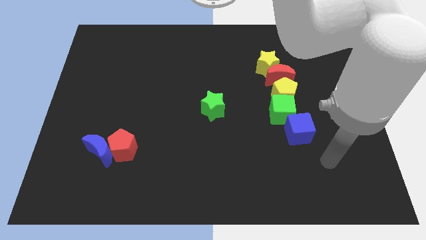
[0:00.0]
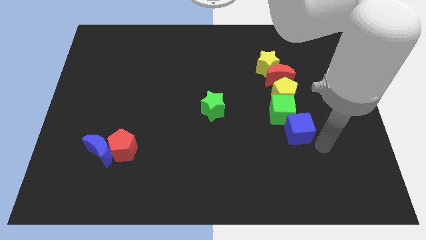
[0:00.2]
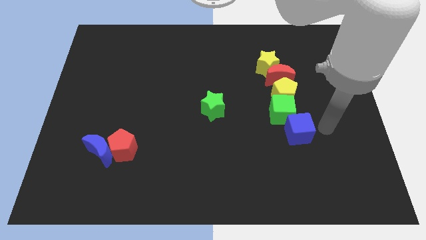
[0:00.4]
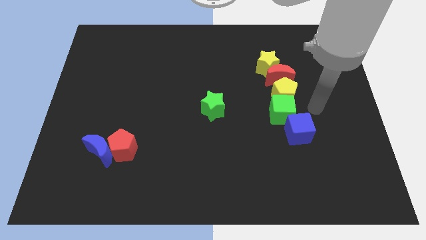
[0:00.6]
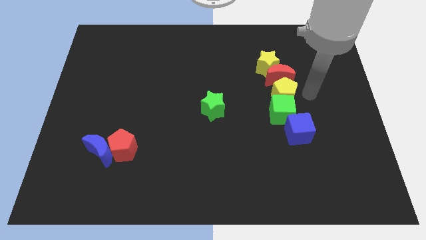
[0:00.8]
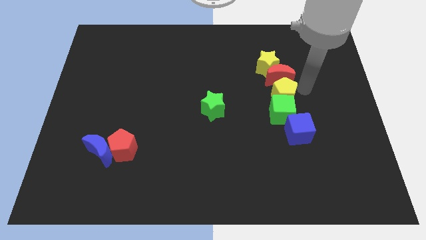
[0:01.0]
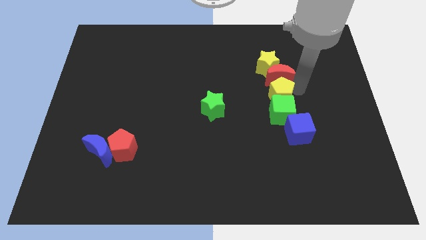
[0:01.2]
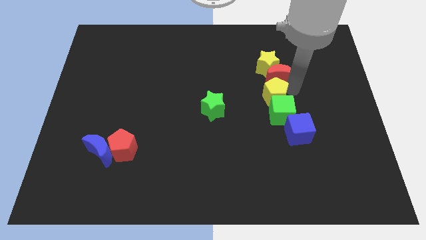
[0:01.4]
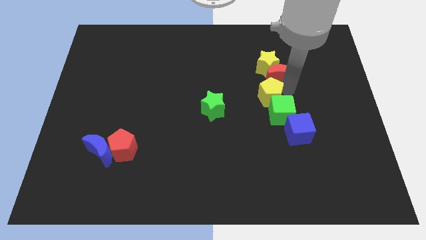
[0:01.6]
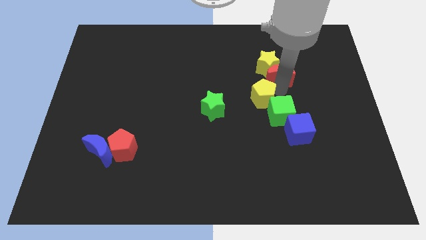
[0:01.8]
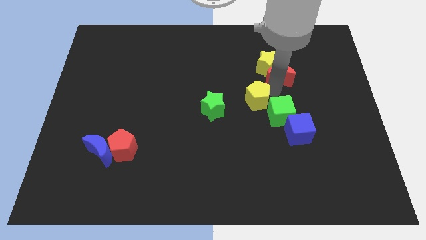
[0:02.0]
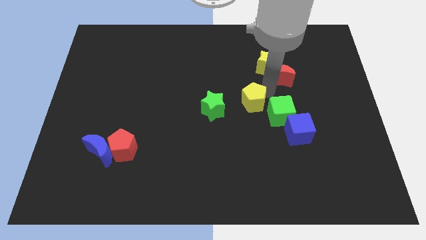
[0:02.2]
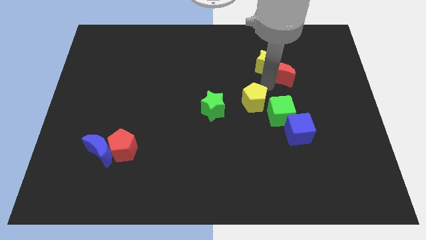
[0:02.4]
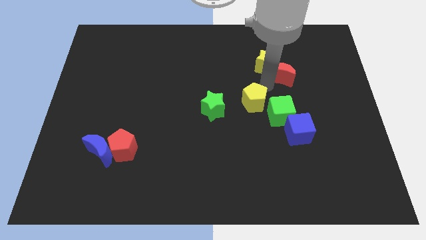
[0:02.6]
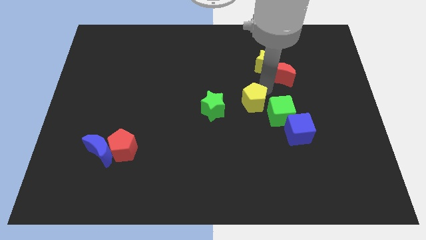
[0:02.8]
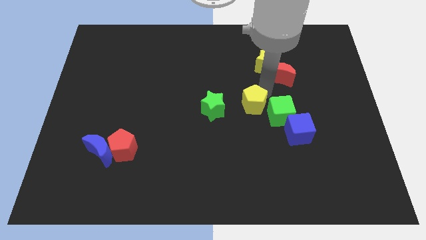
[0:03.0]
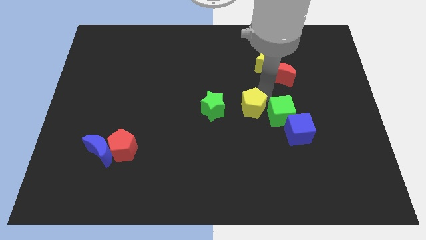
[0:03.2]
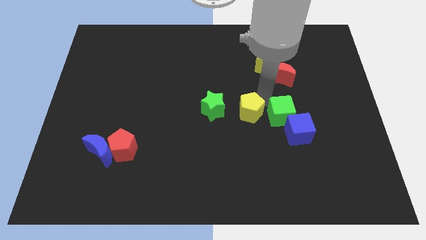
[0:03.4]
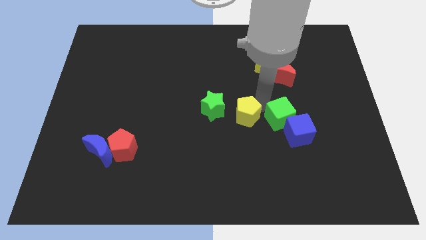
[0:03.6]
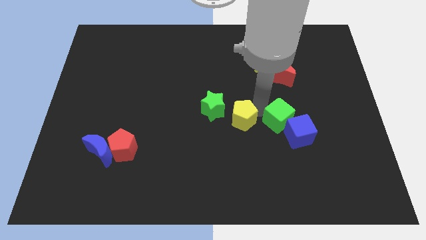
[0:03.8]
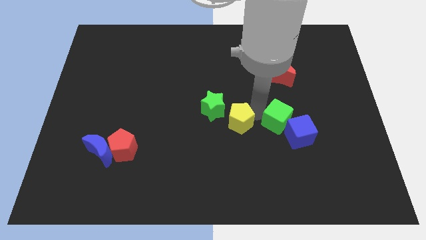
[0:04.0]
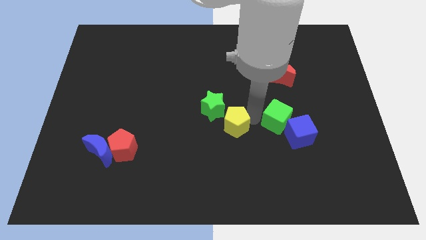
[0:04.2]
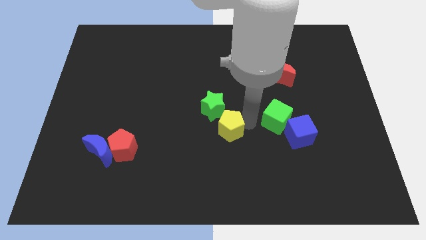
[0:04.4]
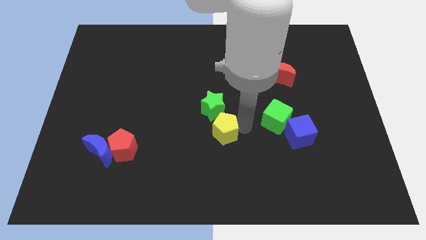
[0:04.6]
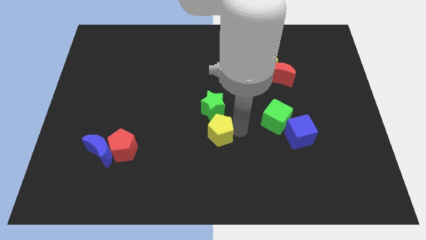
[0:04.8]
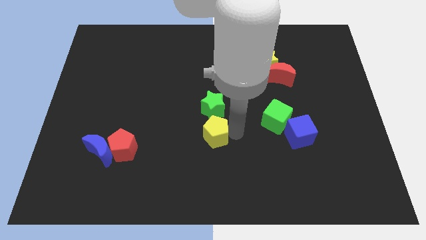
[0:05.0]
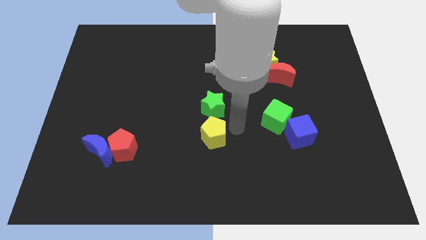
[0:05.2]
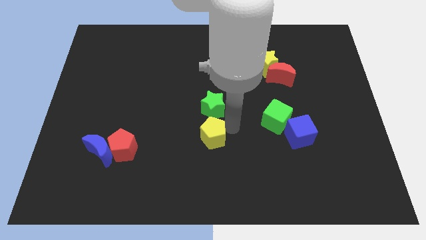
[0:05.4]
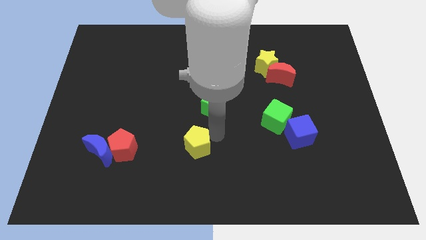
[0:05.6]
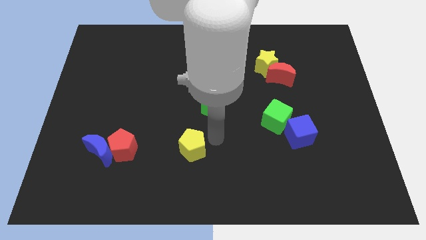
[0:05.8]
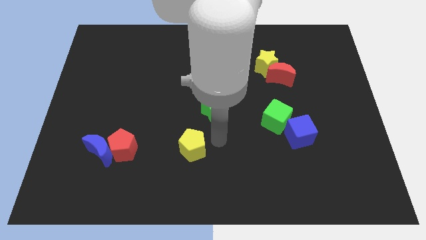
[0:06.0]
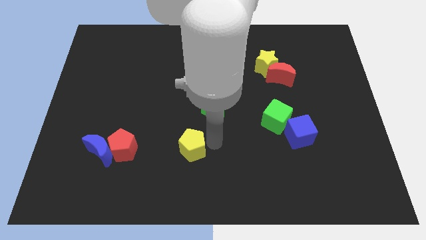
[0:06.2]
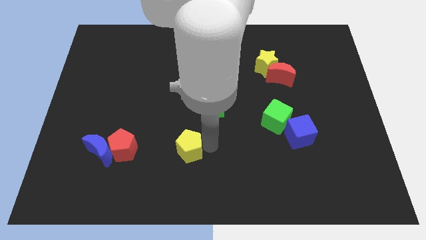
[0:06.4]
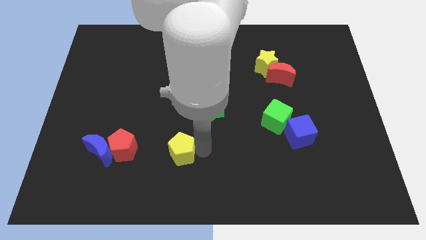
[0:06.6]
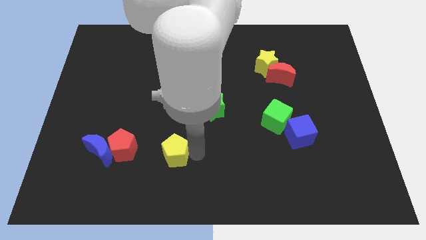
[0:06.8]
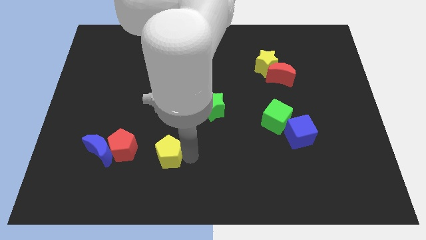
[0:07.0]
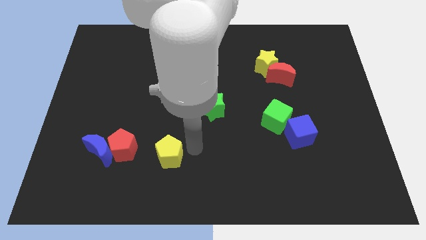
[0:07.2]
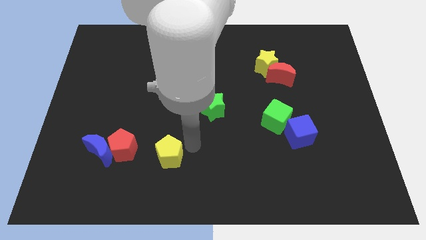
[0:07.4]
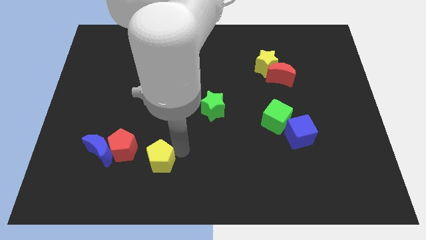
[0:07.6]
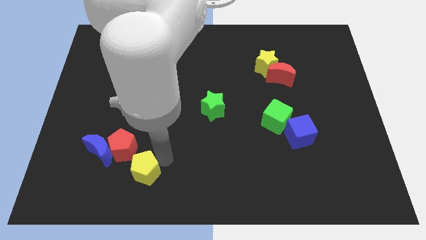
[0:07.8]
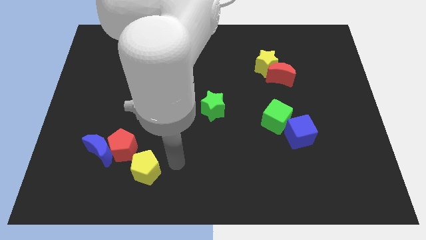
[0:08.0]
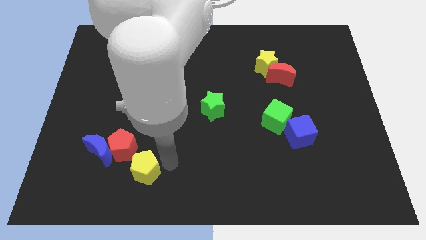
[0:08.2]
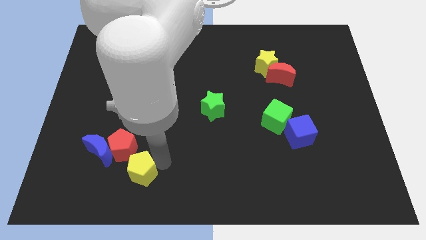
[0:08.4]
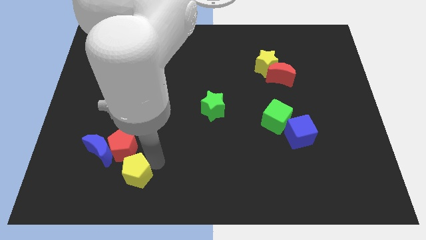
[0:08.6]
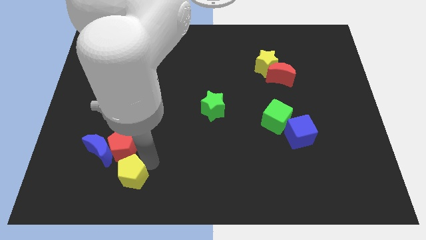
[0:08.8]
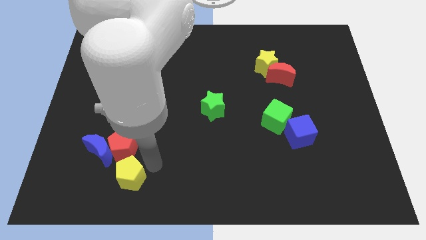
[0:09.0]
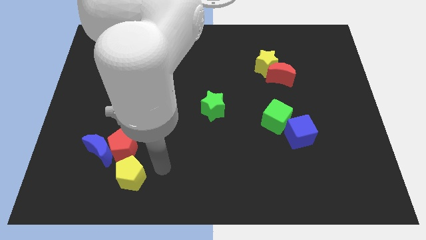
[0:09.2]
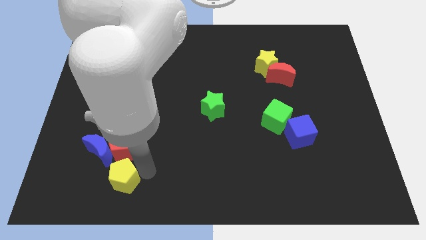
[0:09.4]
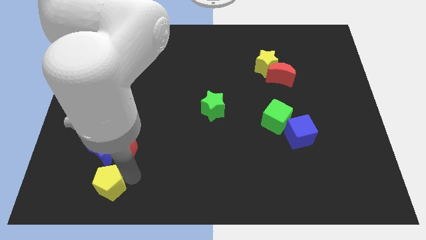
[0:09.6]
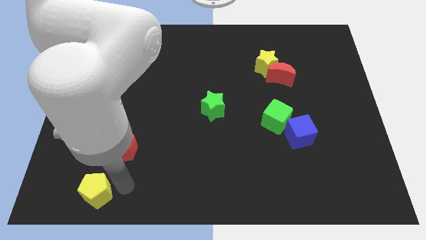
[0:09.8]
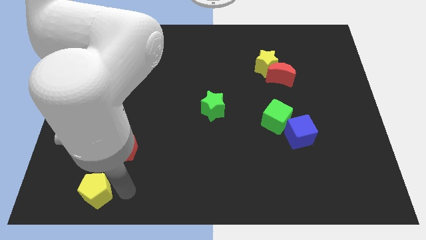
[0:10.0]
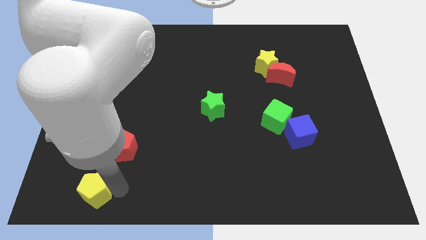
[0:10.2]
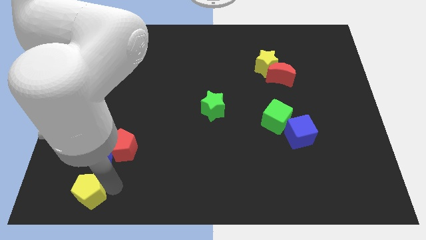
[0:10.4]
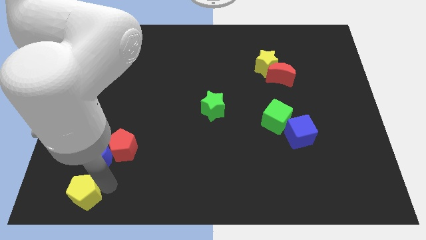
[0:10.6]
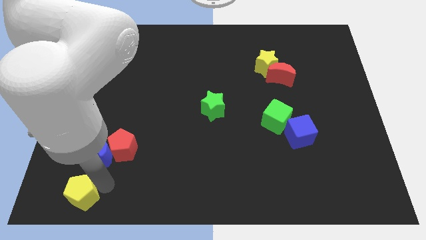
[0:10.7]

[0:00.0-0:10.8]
move the yellow pentagon to the lower left corner

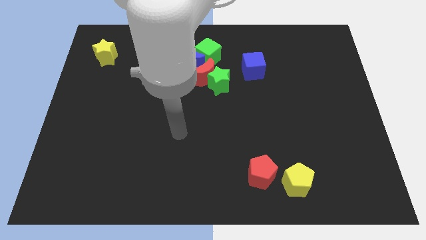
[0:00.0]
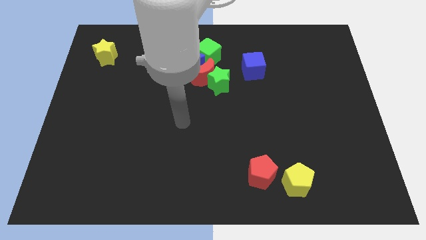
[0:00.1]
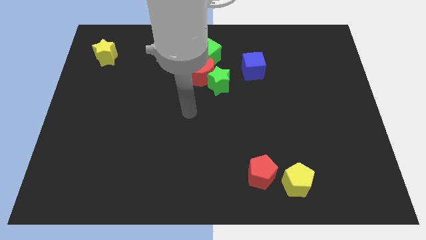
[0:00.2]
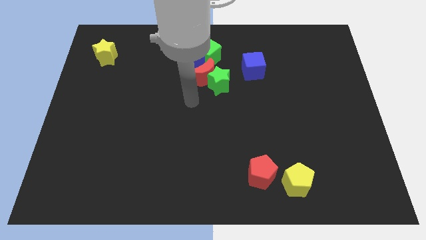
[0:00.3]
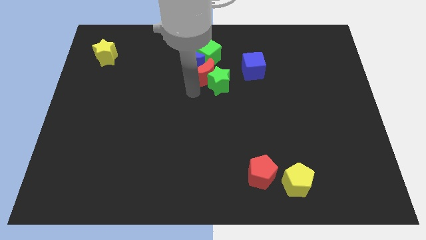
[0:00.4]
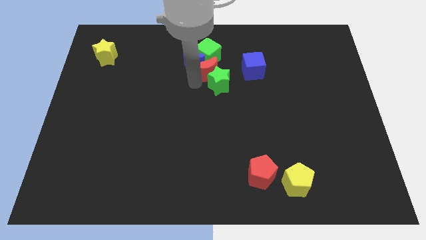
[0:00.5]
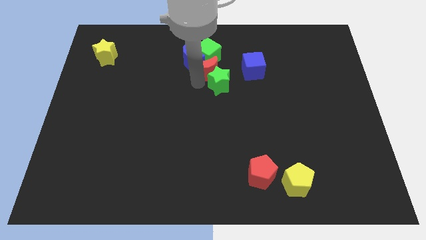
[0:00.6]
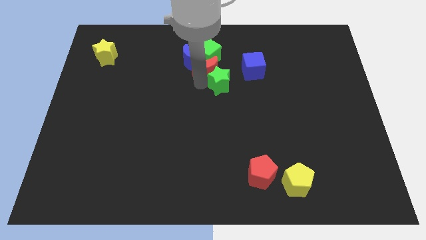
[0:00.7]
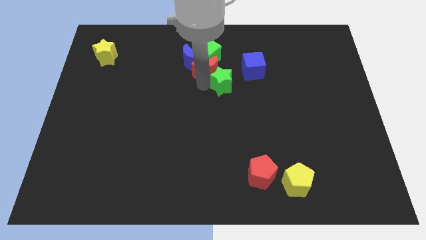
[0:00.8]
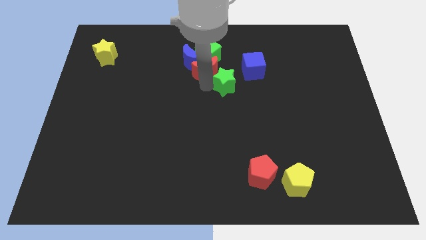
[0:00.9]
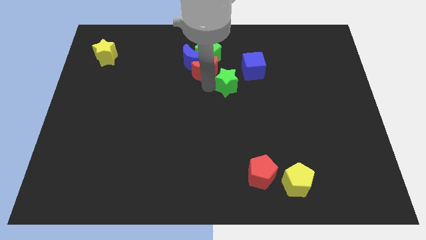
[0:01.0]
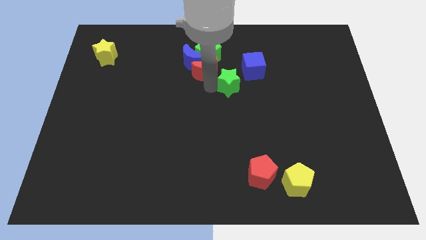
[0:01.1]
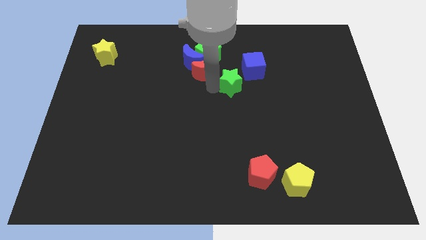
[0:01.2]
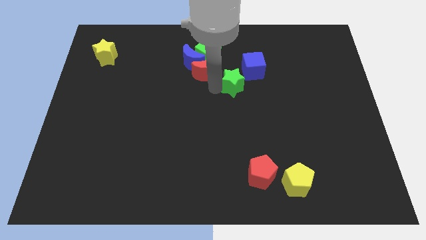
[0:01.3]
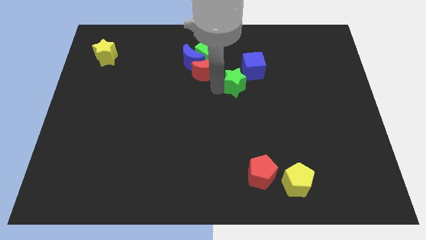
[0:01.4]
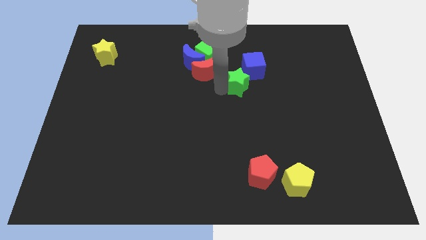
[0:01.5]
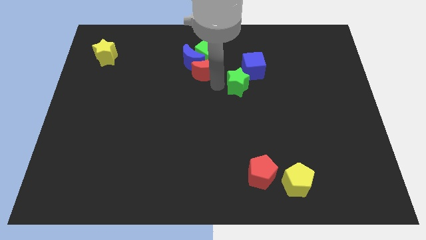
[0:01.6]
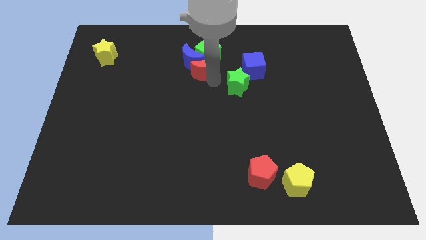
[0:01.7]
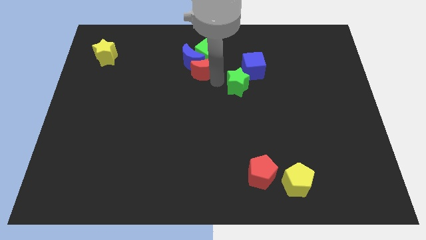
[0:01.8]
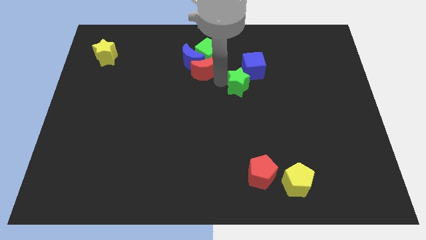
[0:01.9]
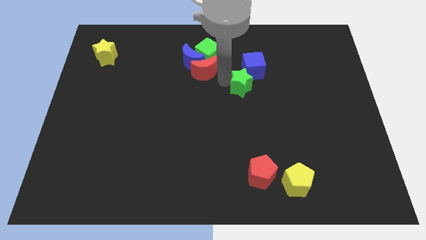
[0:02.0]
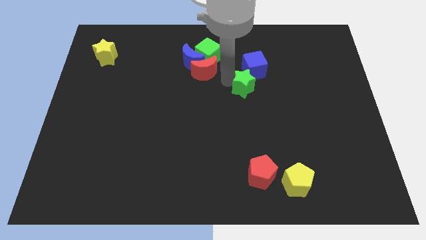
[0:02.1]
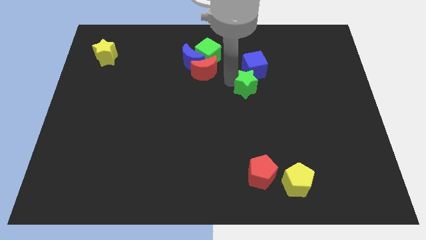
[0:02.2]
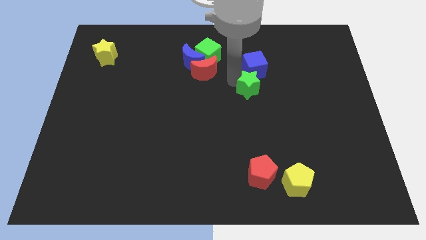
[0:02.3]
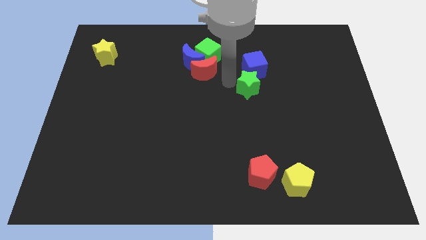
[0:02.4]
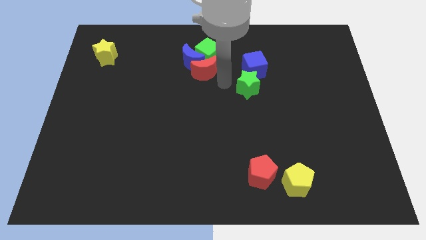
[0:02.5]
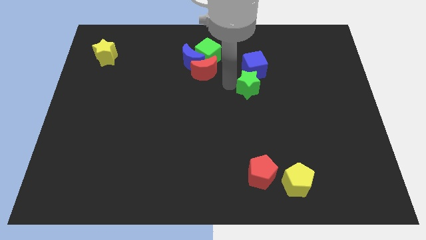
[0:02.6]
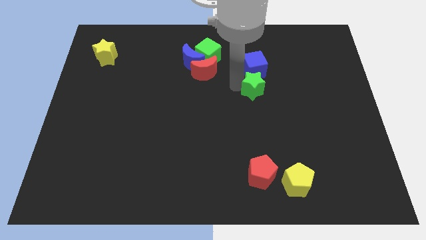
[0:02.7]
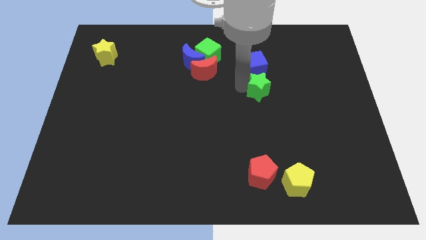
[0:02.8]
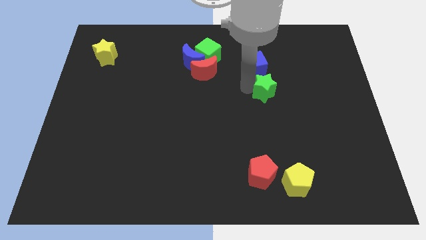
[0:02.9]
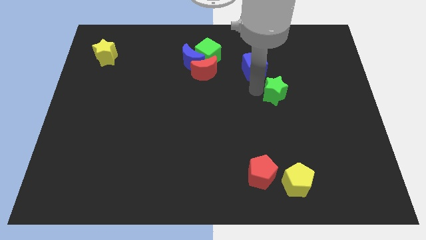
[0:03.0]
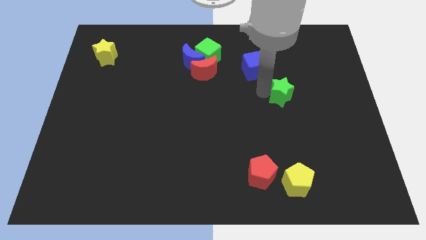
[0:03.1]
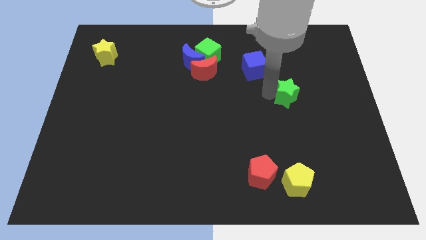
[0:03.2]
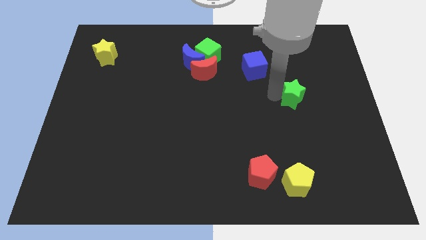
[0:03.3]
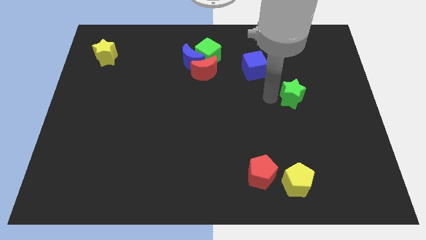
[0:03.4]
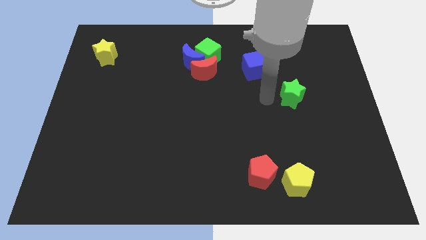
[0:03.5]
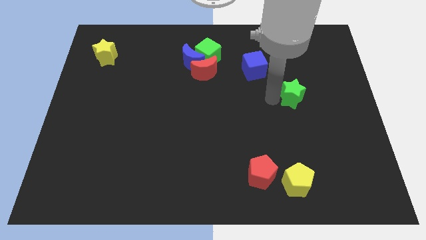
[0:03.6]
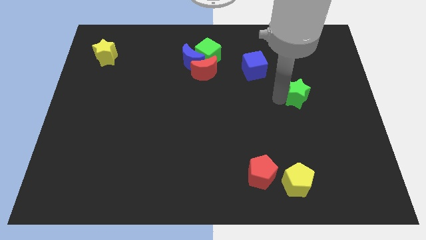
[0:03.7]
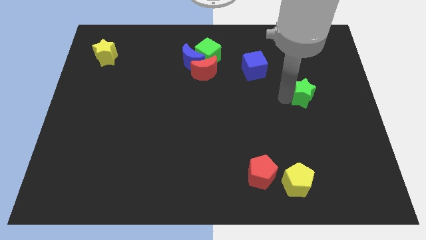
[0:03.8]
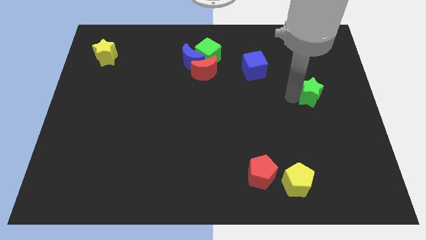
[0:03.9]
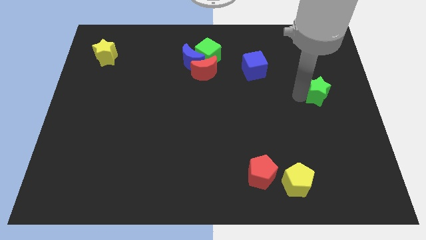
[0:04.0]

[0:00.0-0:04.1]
slide the green star to the right side
